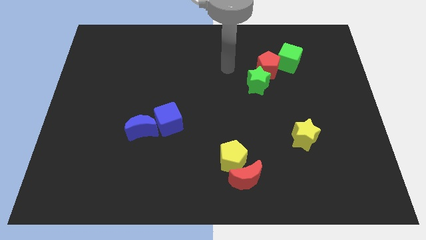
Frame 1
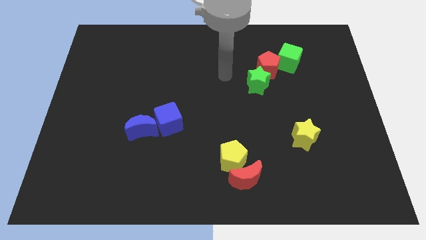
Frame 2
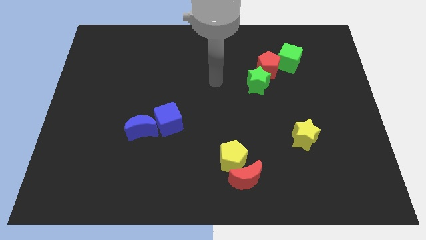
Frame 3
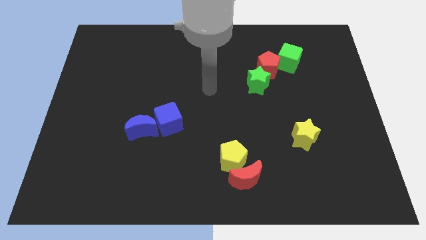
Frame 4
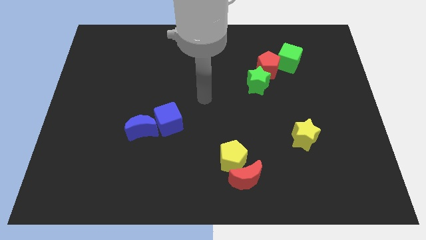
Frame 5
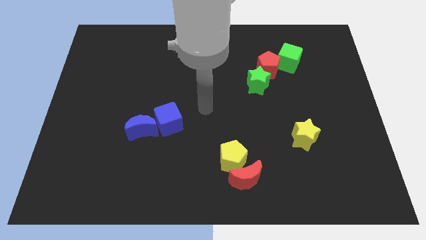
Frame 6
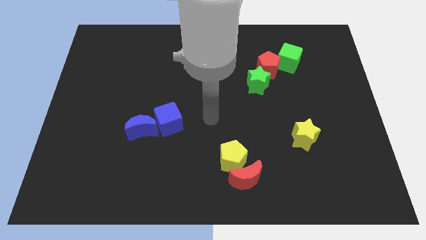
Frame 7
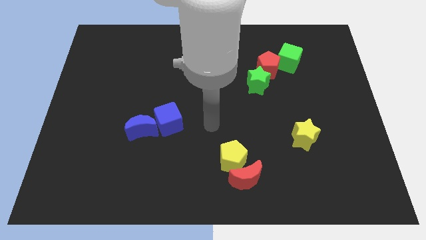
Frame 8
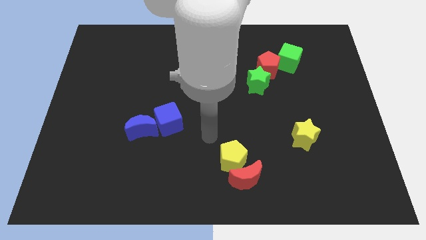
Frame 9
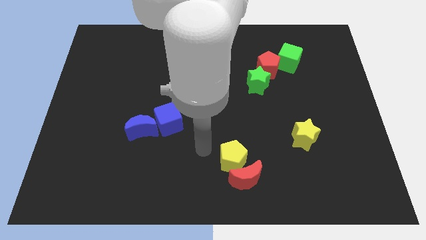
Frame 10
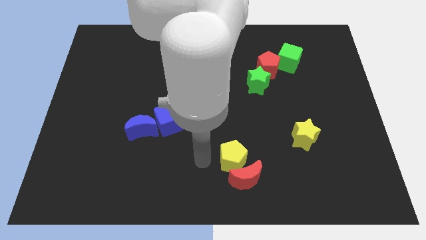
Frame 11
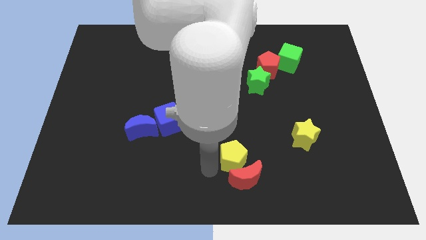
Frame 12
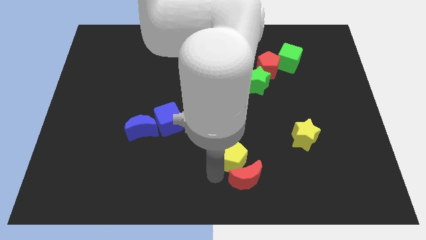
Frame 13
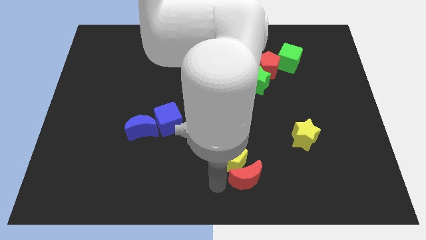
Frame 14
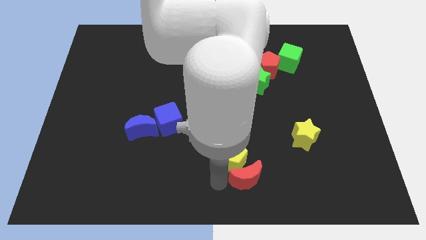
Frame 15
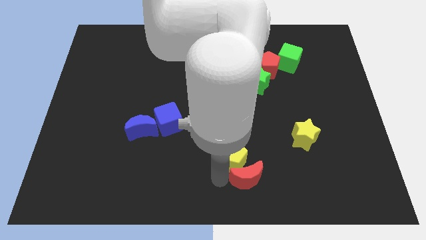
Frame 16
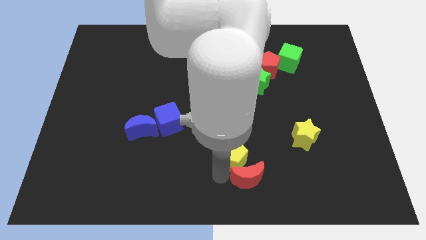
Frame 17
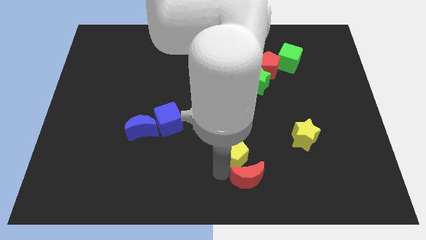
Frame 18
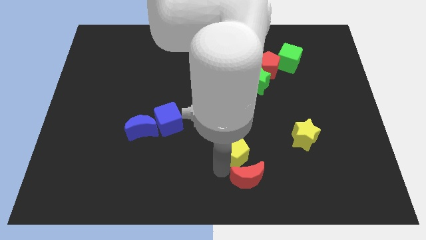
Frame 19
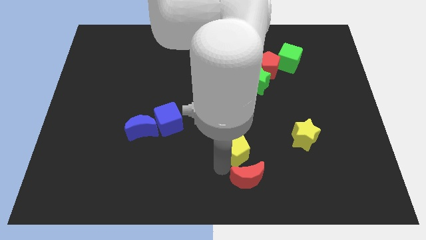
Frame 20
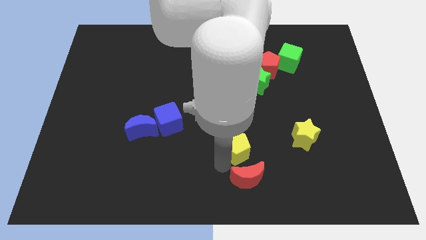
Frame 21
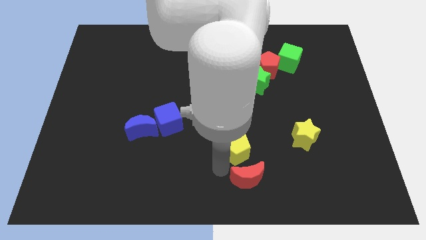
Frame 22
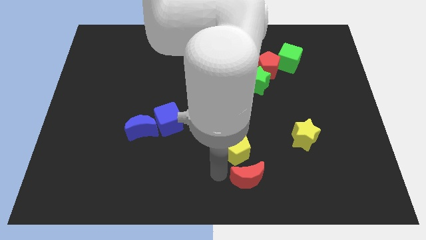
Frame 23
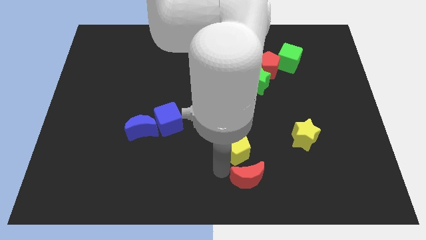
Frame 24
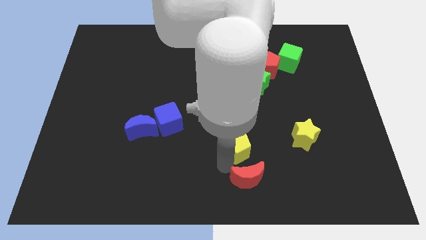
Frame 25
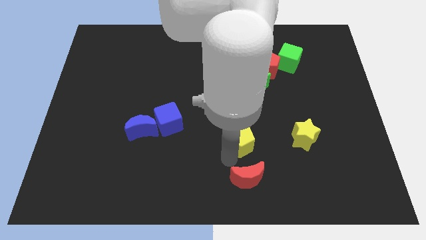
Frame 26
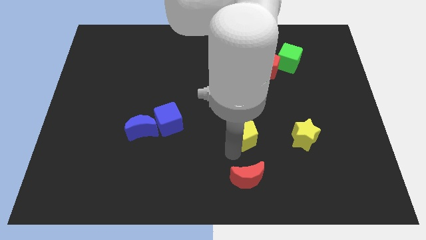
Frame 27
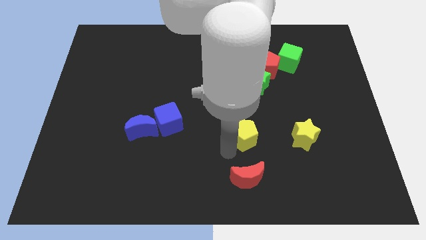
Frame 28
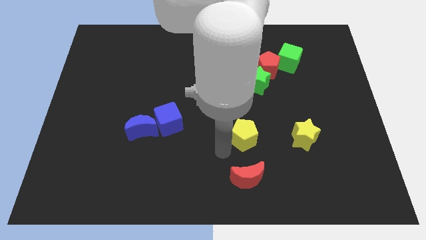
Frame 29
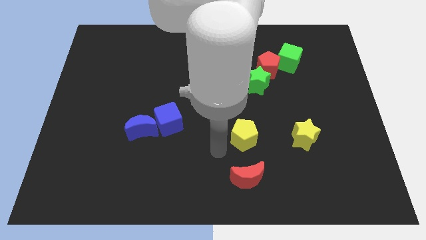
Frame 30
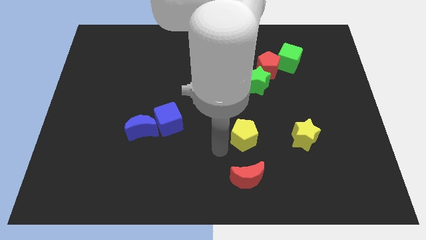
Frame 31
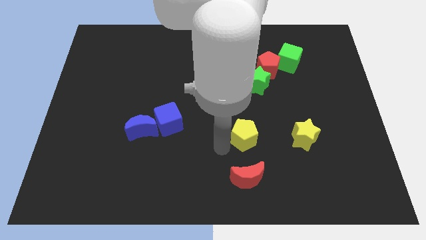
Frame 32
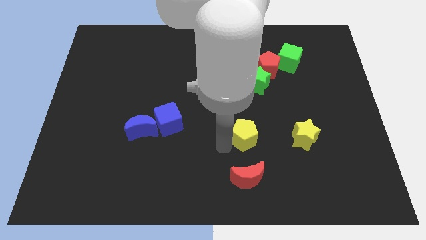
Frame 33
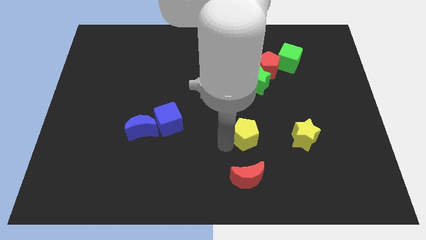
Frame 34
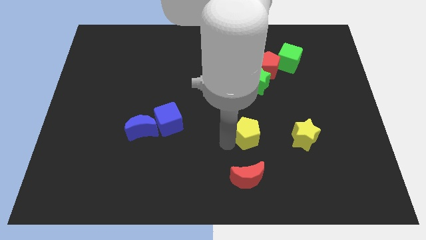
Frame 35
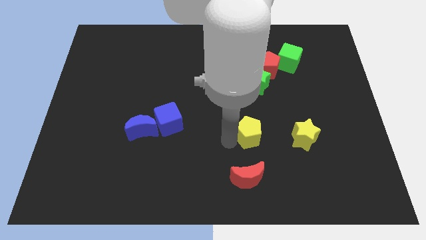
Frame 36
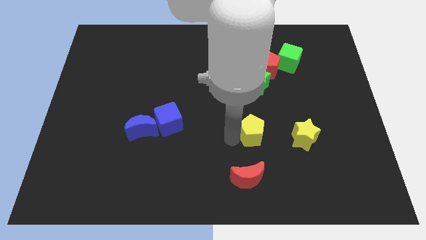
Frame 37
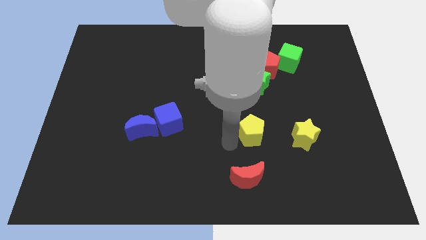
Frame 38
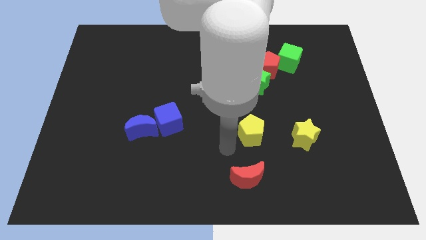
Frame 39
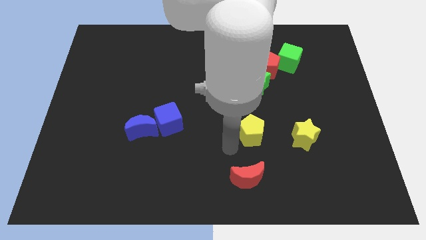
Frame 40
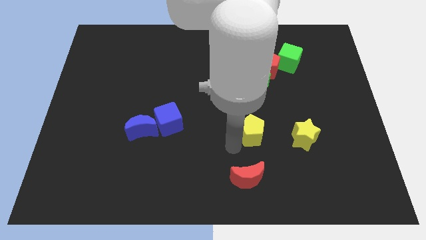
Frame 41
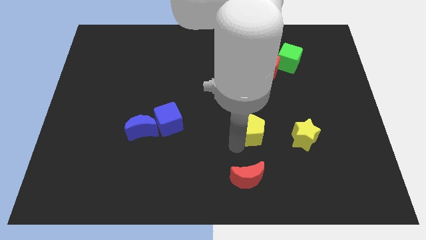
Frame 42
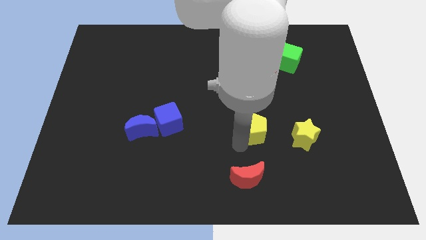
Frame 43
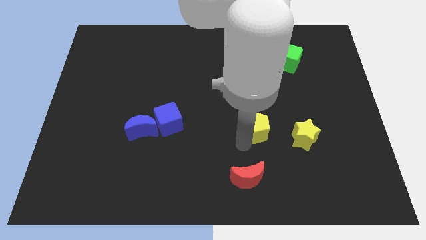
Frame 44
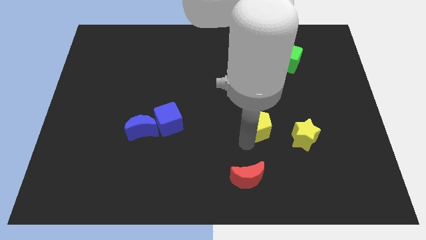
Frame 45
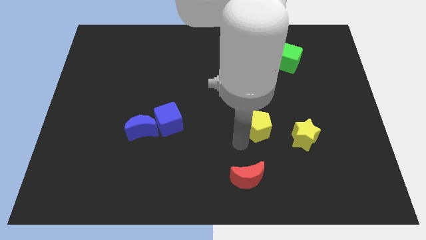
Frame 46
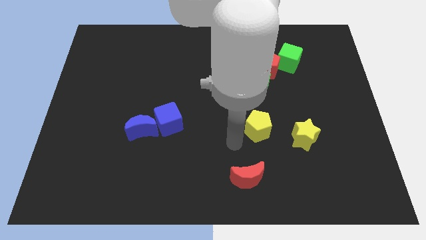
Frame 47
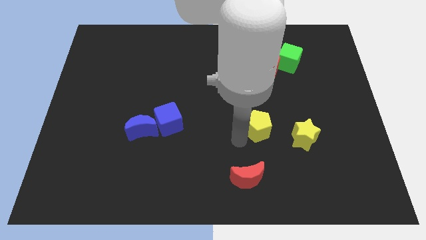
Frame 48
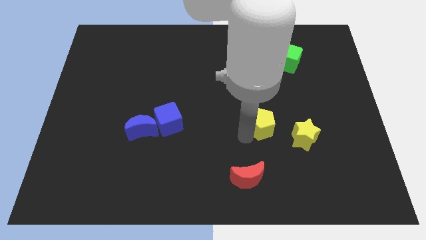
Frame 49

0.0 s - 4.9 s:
put the yellow pentagon diagonally up and to the left of the yellow star

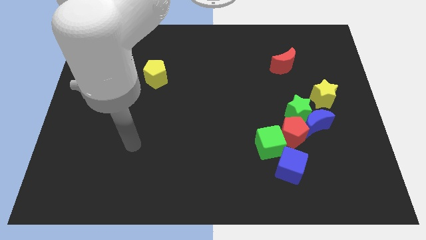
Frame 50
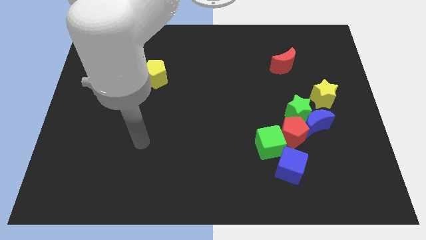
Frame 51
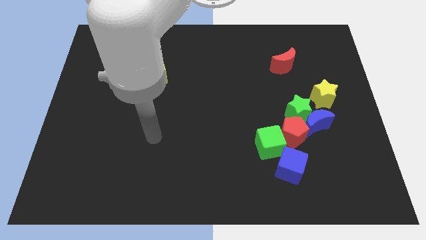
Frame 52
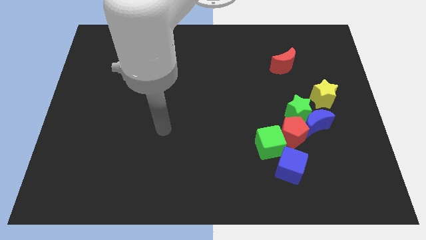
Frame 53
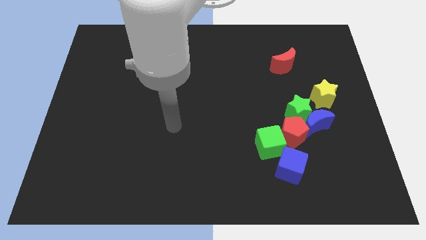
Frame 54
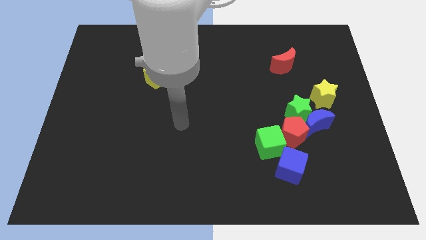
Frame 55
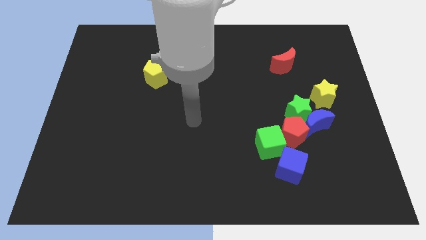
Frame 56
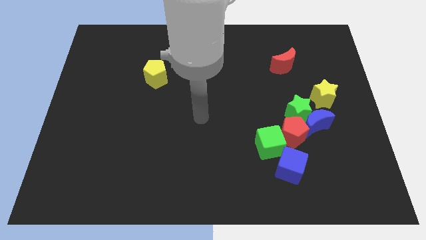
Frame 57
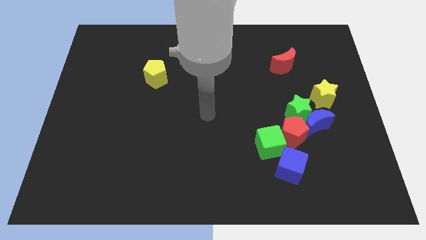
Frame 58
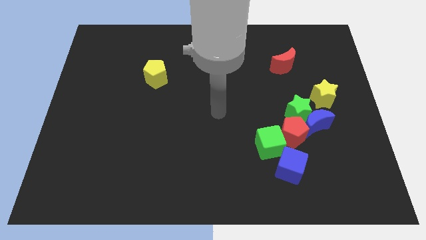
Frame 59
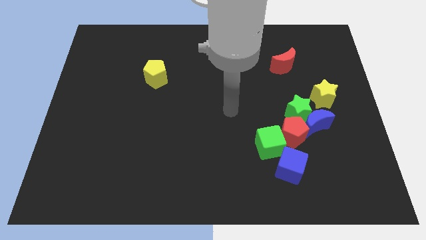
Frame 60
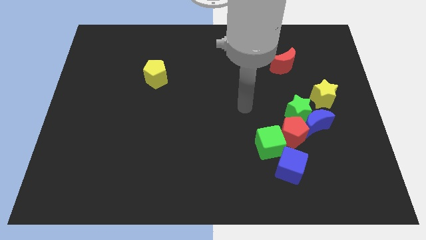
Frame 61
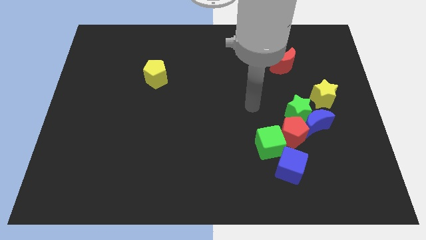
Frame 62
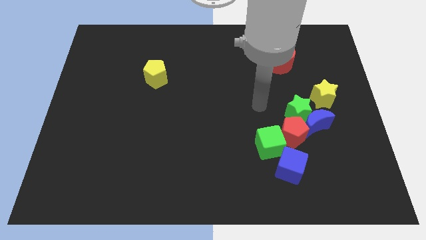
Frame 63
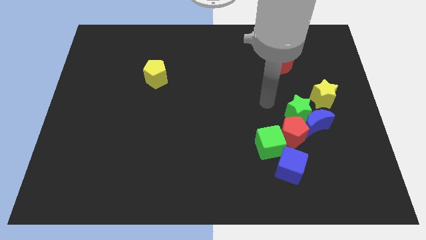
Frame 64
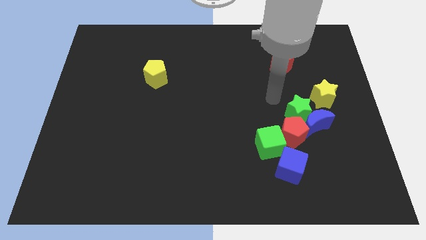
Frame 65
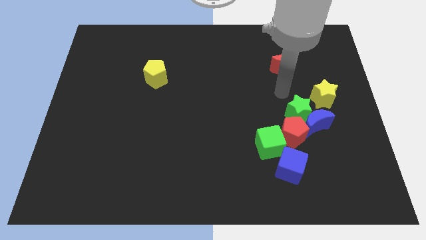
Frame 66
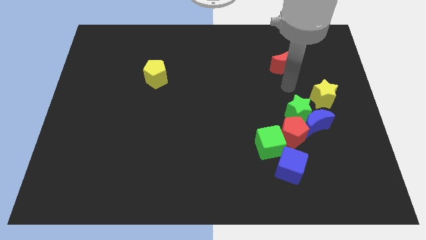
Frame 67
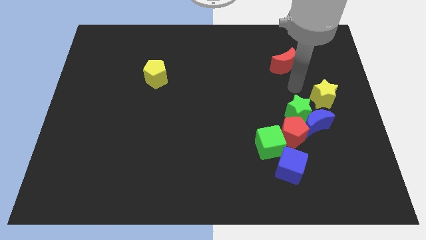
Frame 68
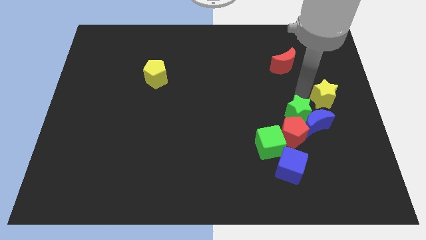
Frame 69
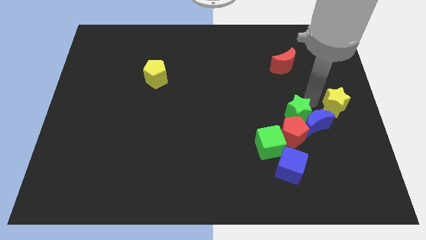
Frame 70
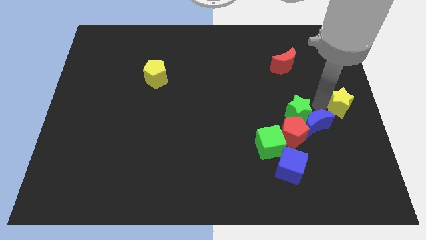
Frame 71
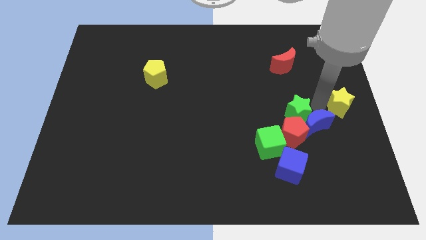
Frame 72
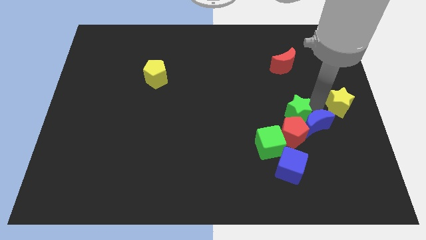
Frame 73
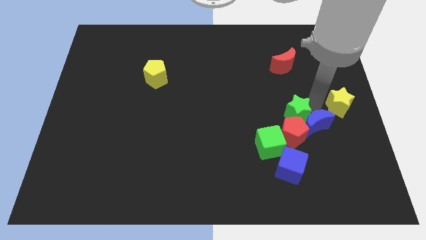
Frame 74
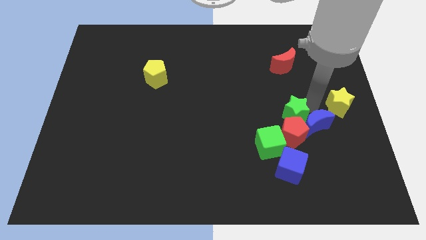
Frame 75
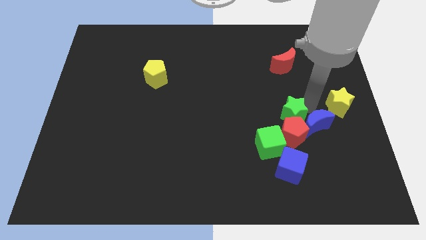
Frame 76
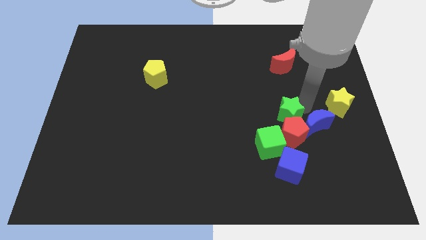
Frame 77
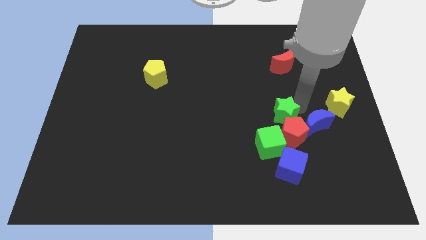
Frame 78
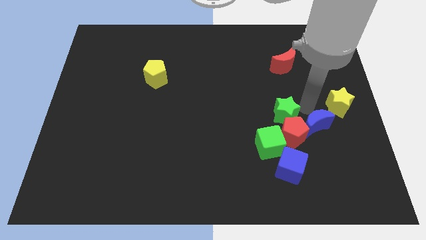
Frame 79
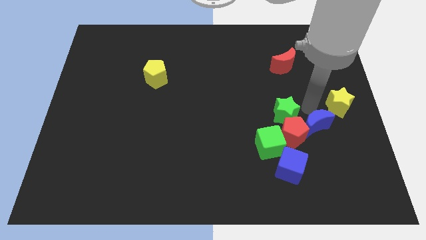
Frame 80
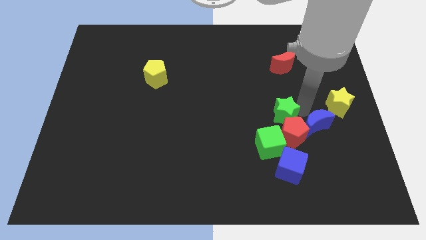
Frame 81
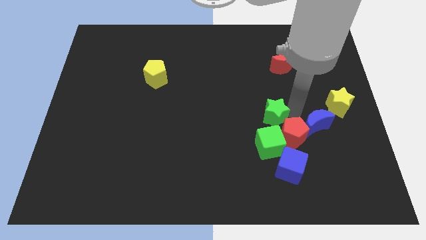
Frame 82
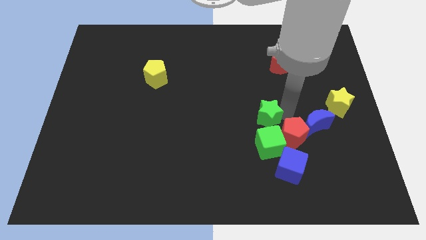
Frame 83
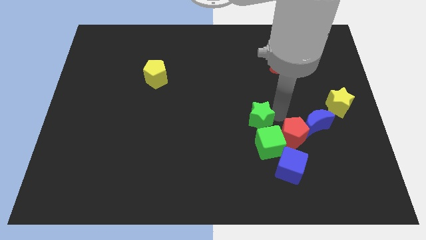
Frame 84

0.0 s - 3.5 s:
slide the green star to the top left of the green cube
